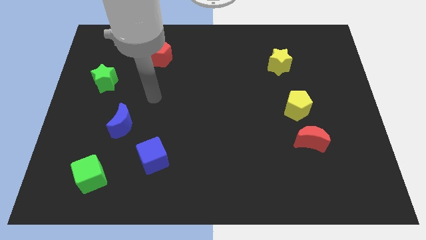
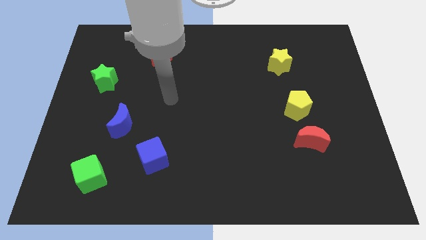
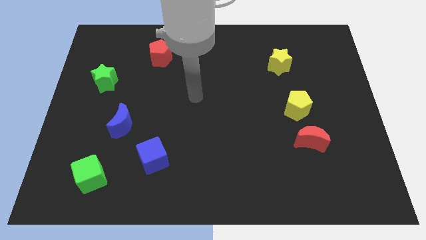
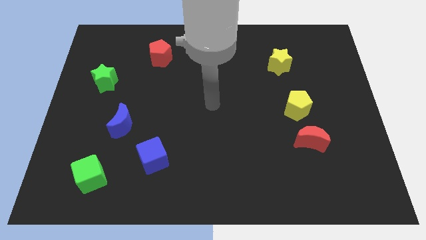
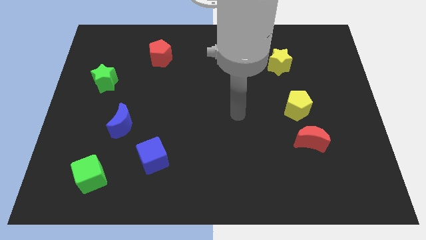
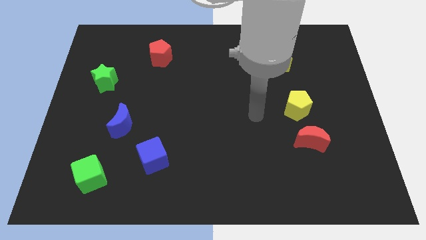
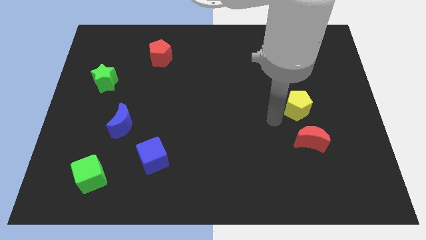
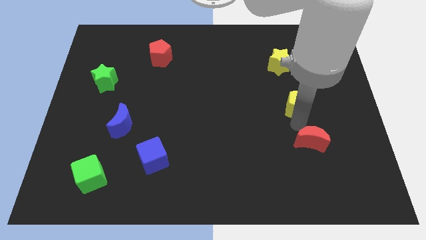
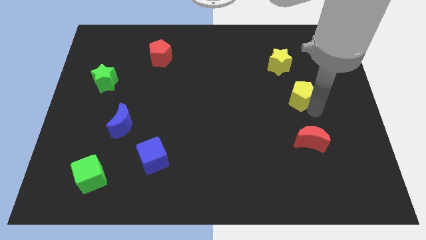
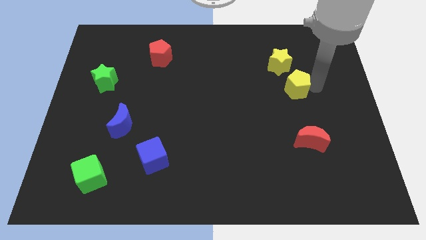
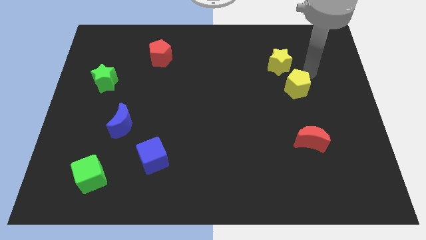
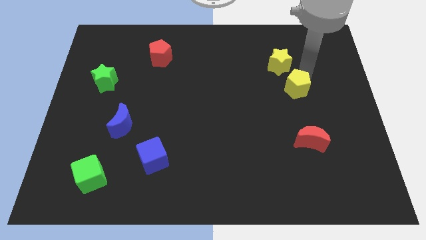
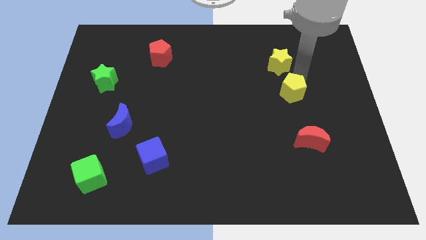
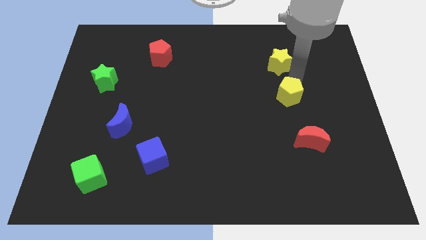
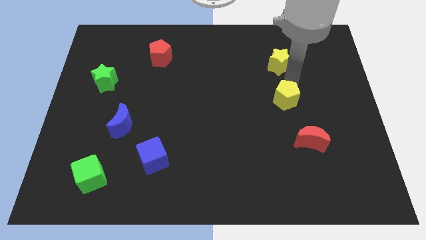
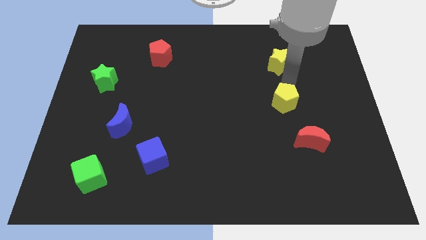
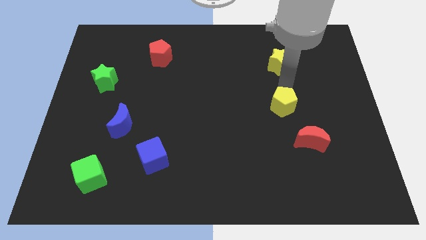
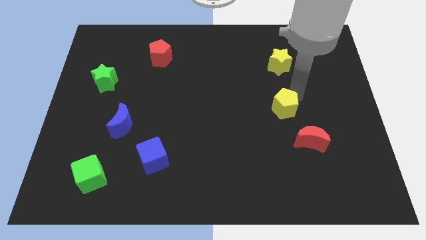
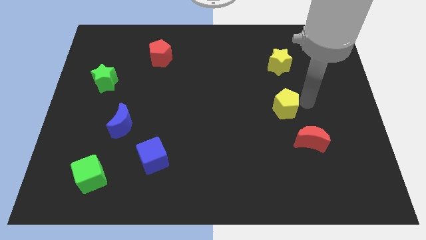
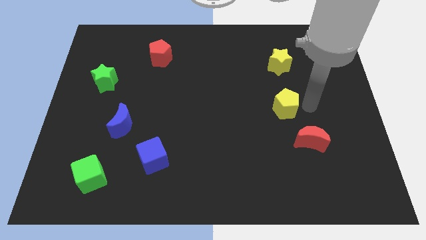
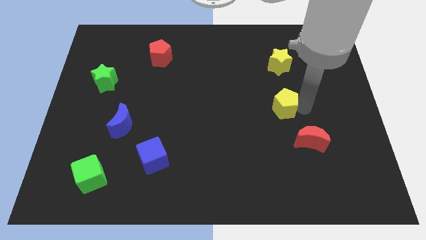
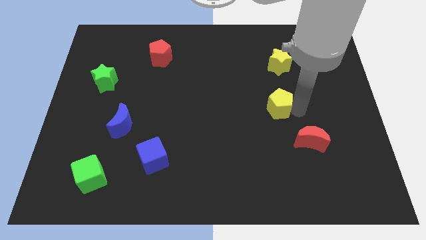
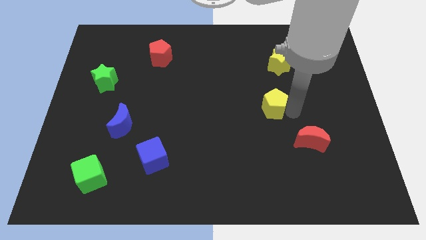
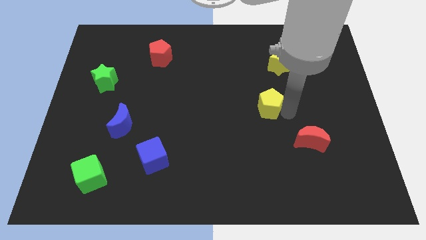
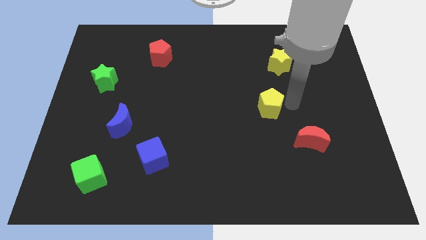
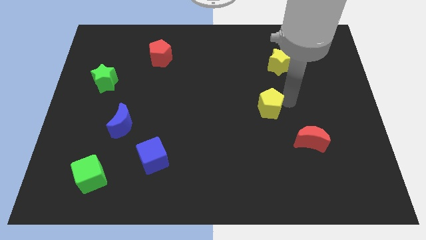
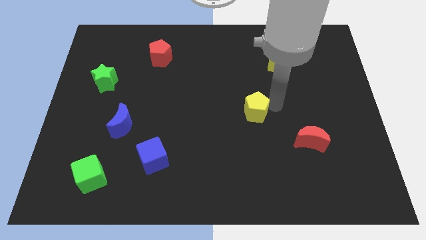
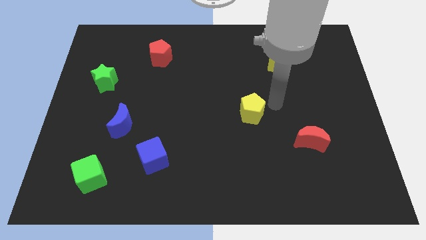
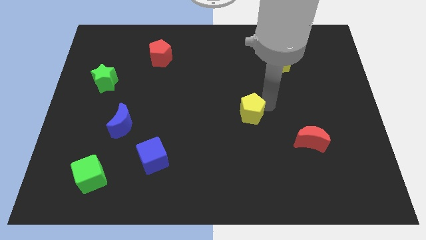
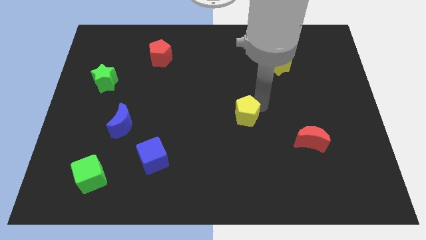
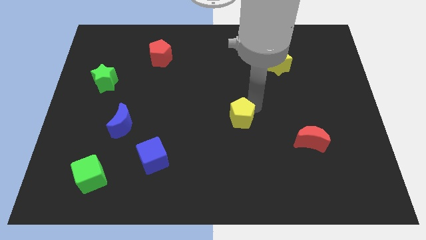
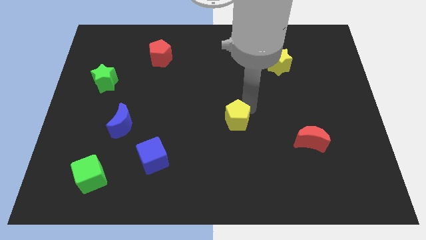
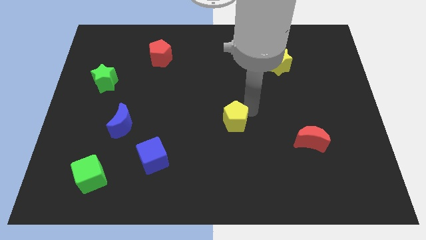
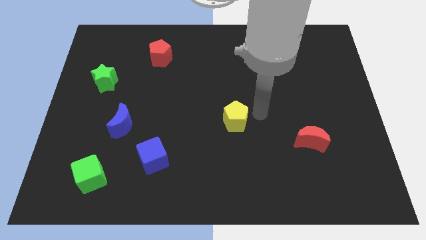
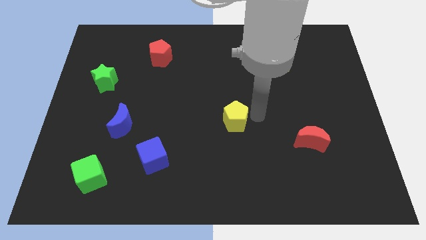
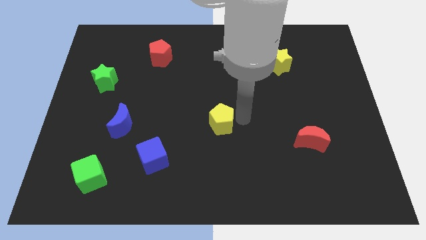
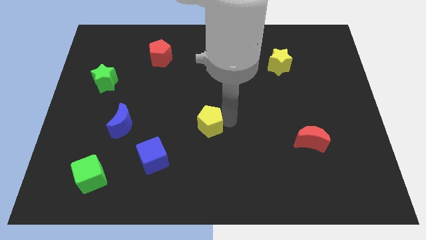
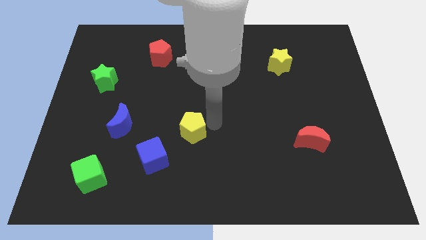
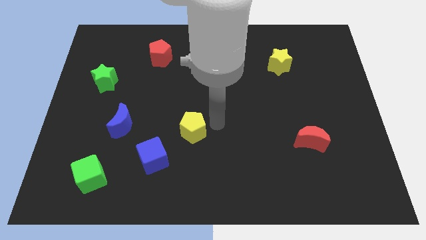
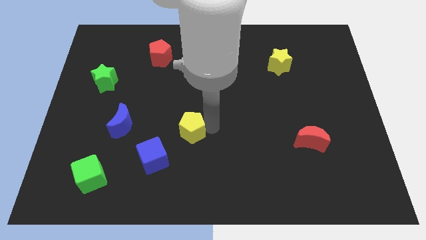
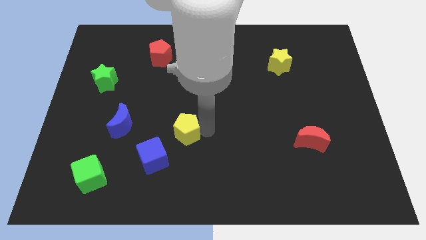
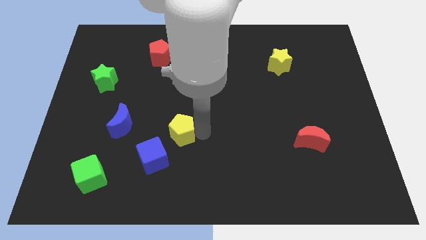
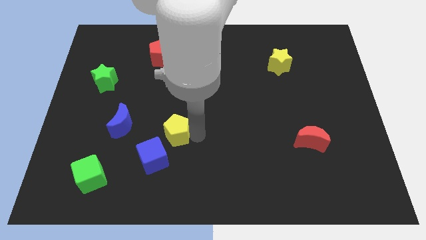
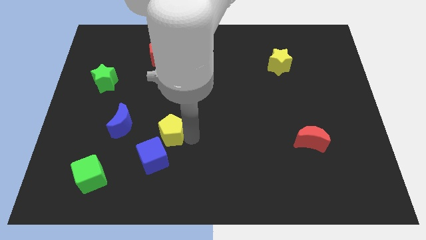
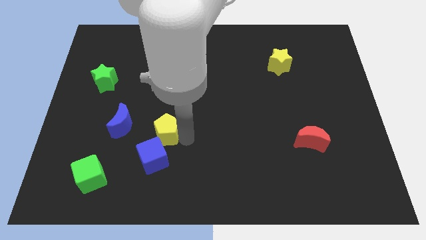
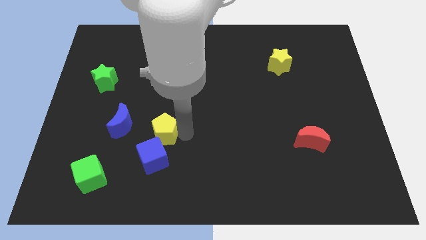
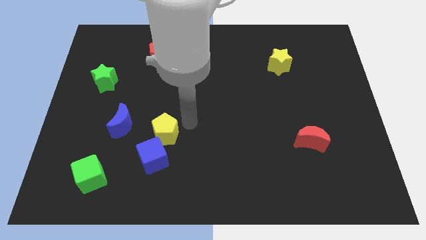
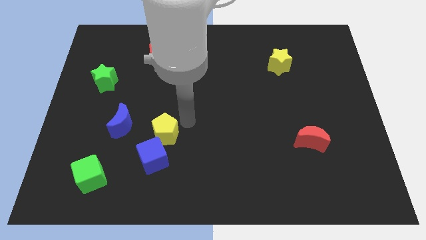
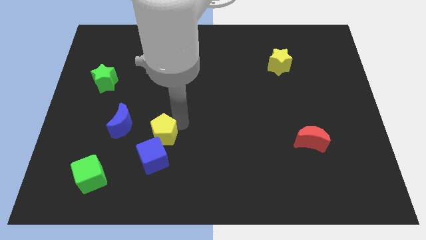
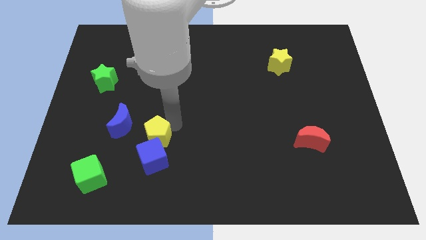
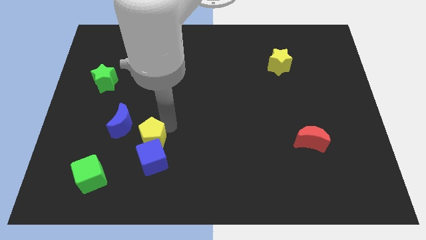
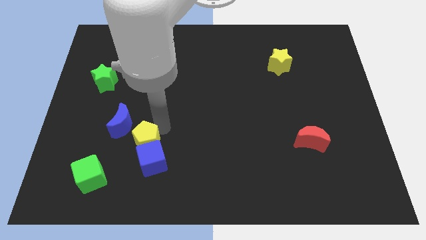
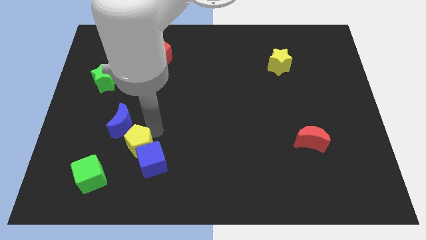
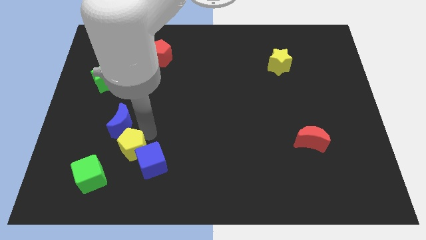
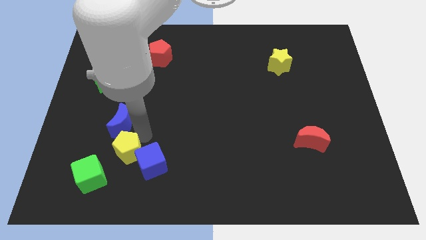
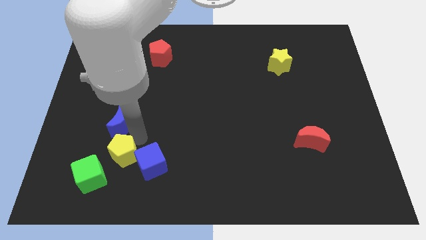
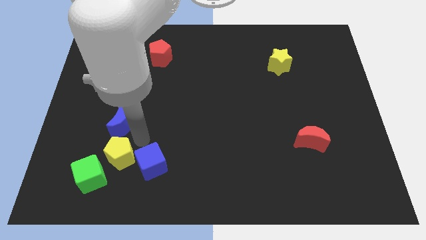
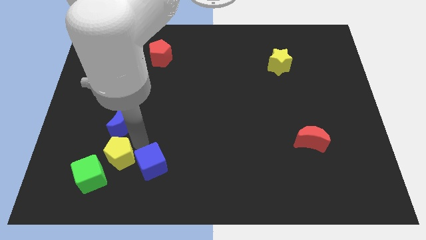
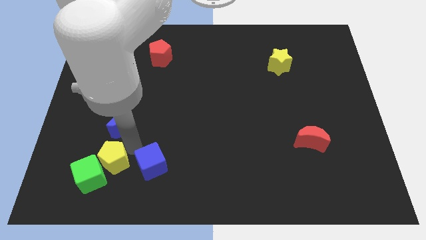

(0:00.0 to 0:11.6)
push the yellow pentagon towards the green cube

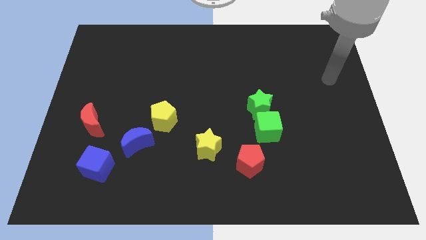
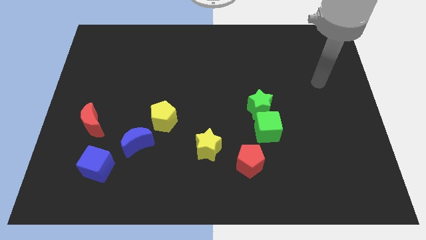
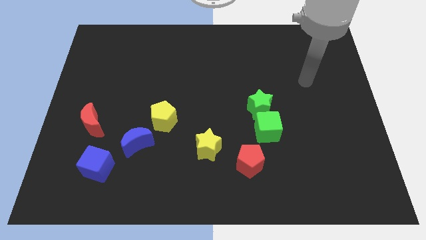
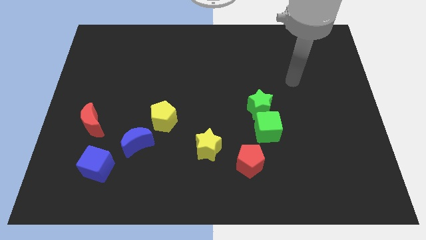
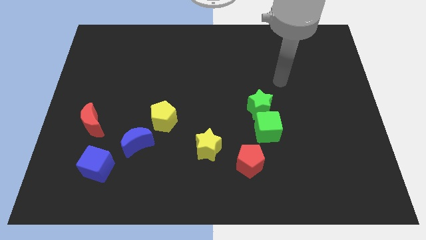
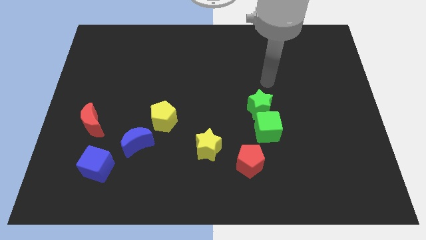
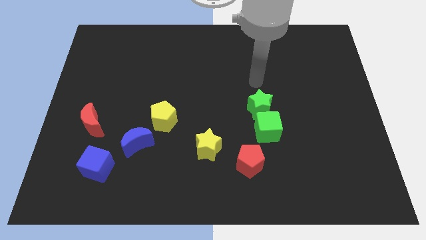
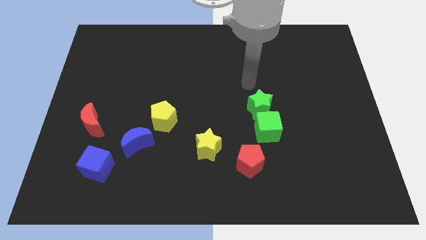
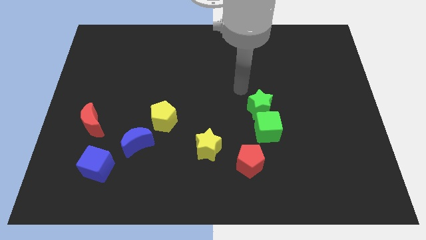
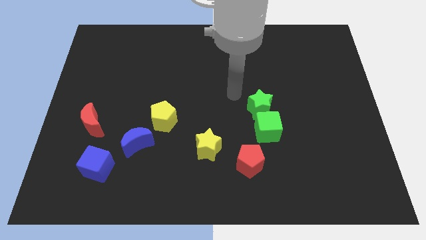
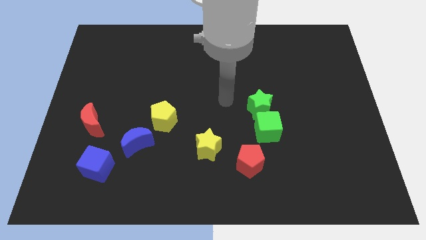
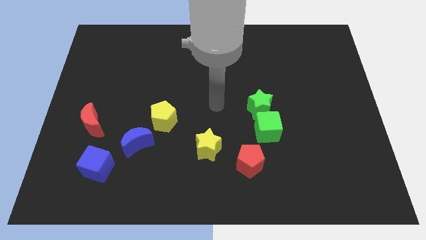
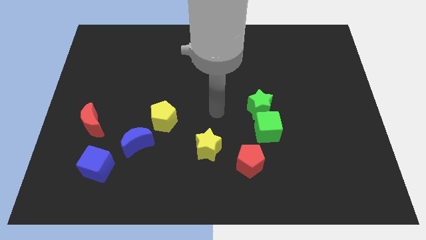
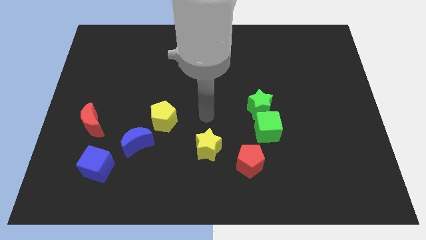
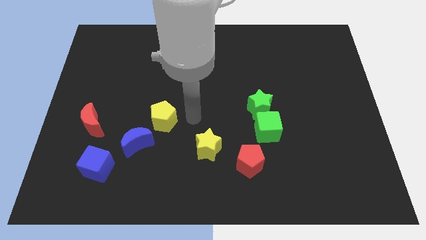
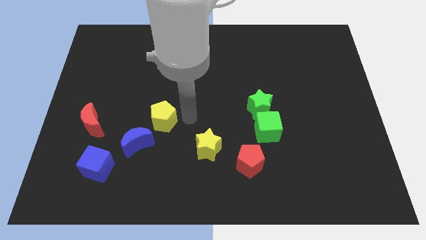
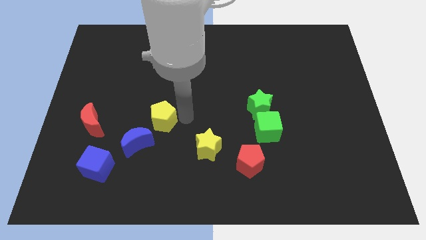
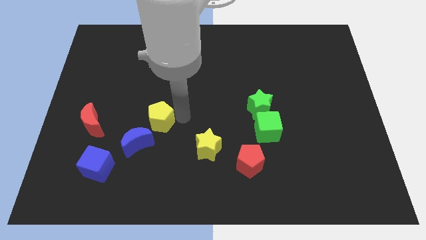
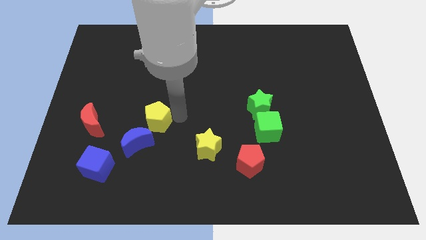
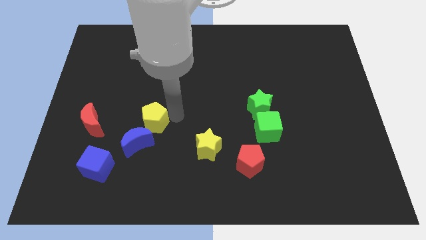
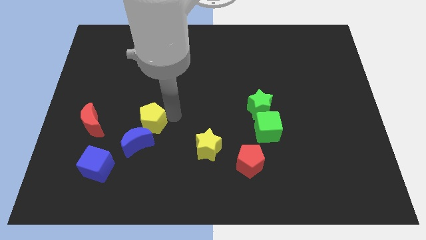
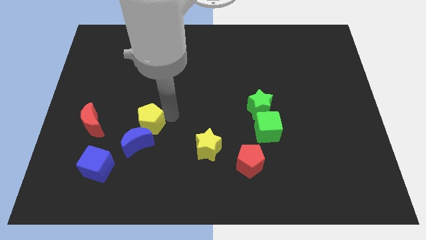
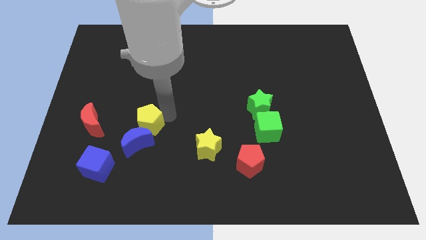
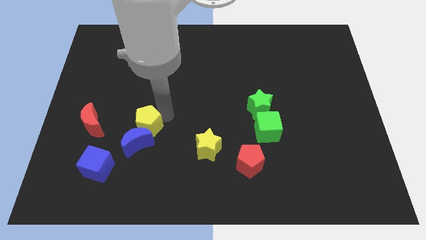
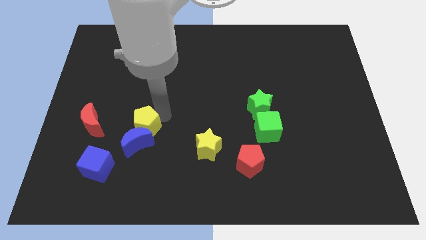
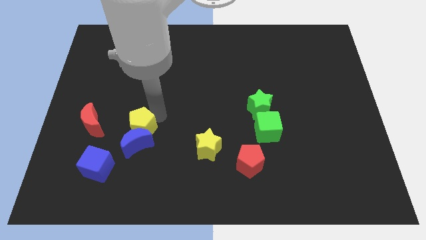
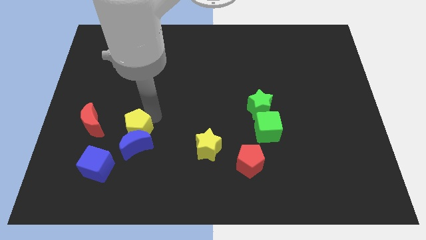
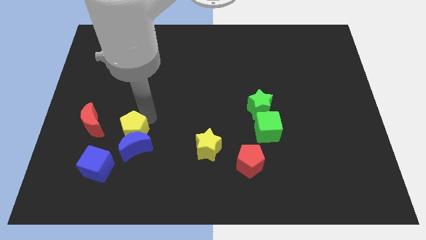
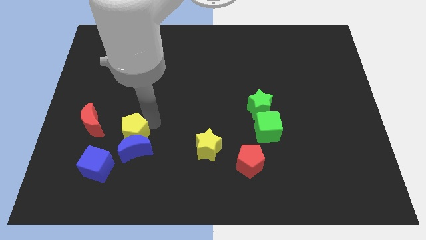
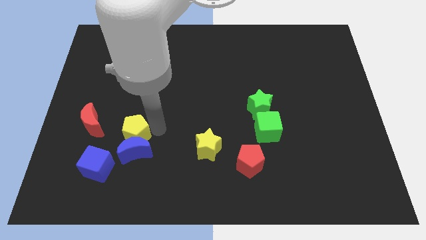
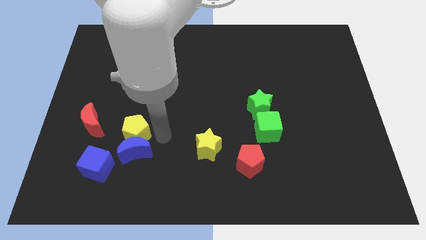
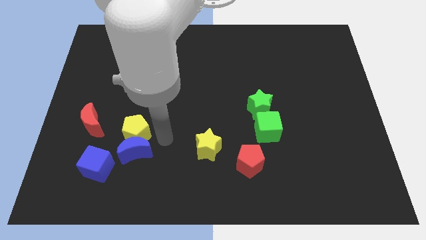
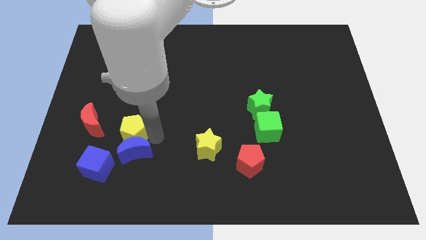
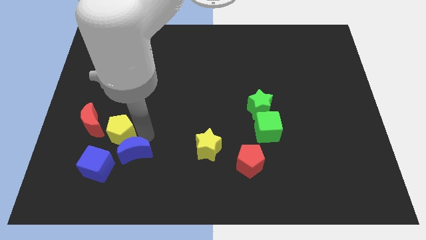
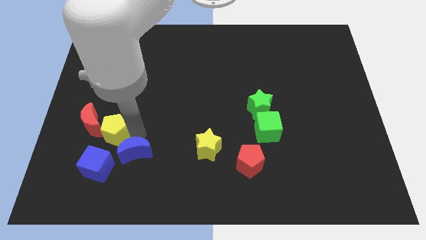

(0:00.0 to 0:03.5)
put the yellow pentagon to the red moon
